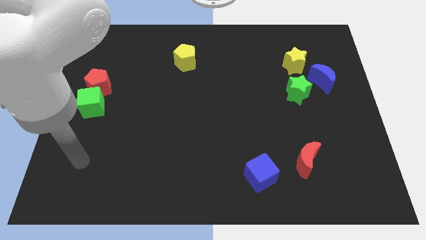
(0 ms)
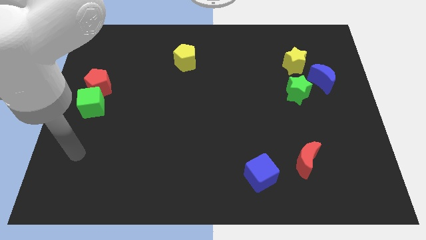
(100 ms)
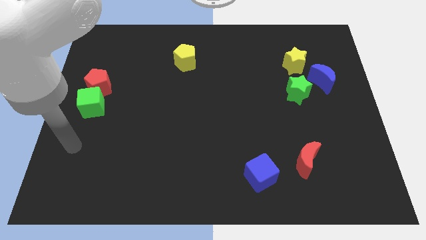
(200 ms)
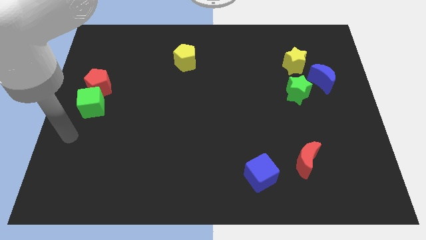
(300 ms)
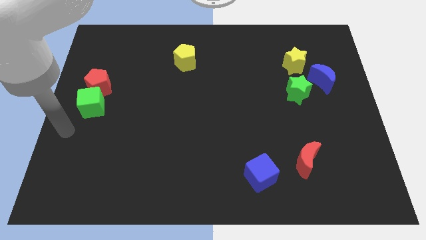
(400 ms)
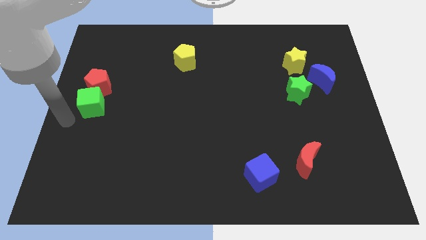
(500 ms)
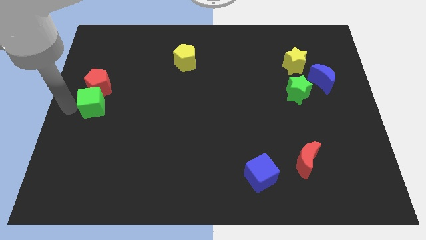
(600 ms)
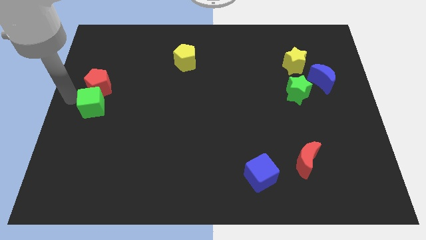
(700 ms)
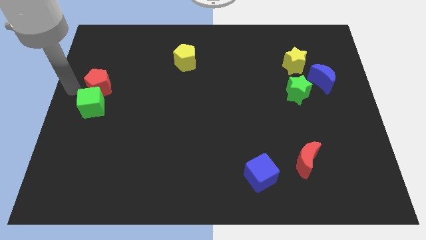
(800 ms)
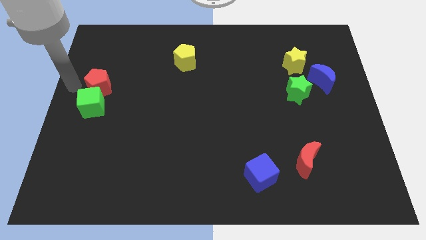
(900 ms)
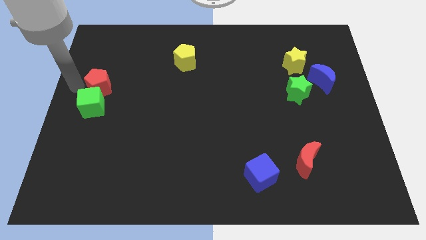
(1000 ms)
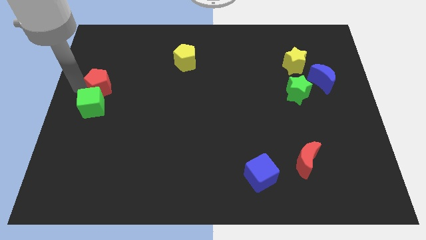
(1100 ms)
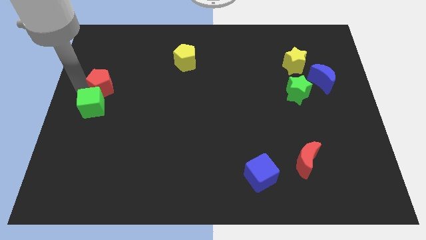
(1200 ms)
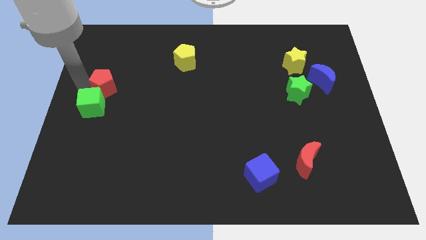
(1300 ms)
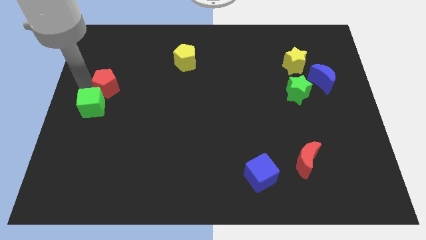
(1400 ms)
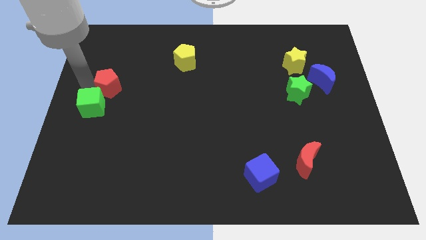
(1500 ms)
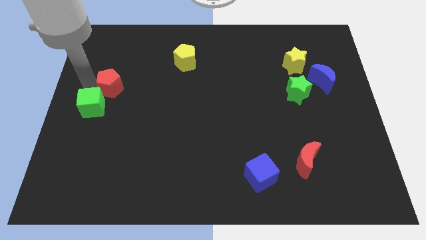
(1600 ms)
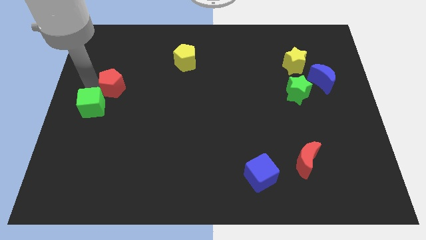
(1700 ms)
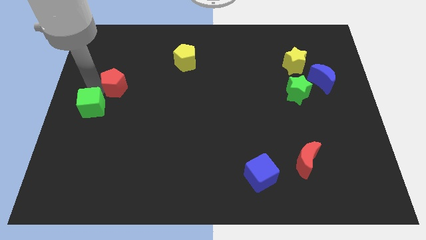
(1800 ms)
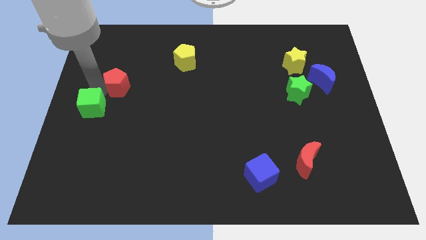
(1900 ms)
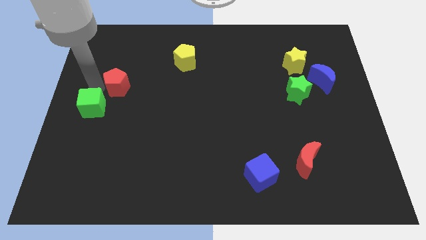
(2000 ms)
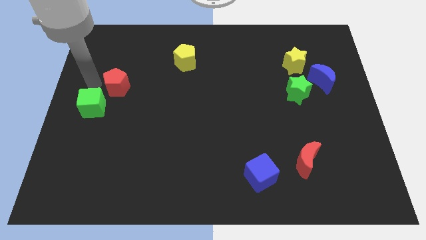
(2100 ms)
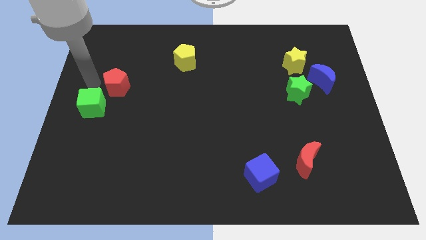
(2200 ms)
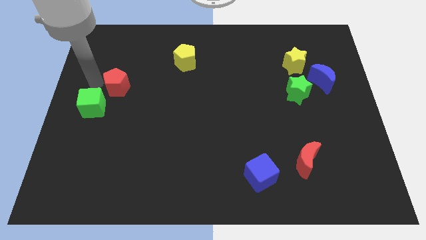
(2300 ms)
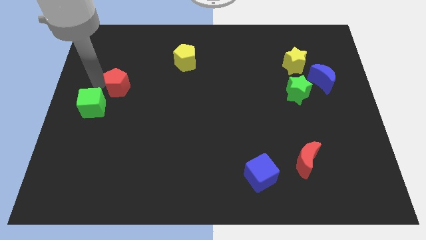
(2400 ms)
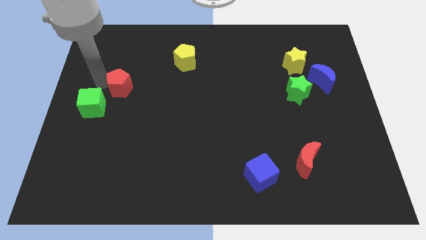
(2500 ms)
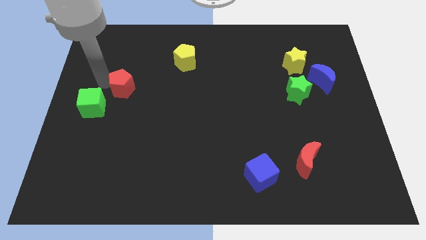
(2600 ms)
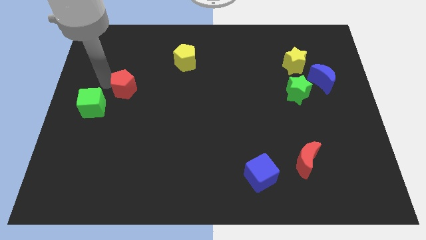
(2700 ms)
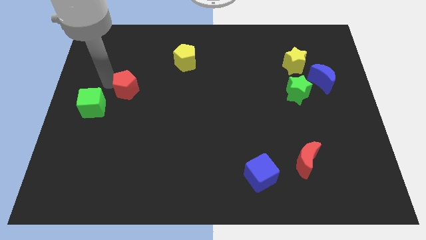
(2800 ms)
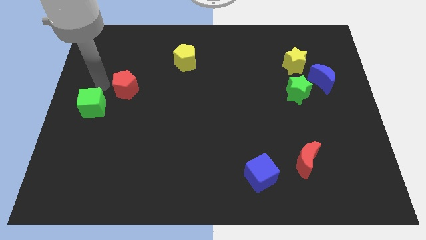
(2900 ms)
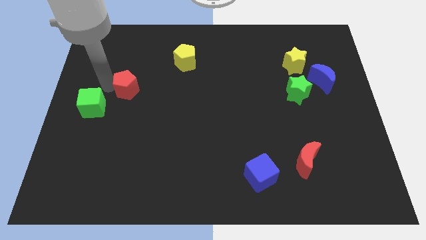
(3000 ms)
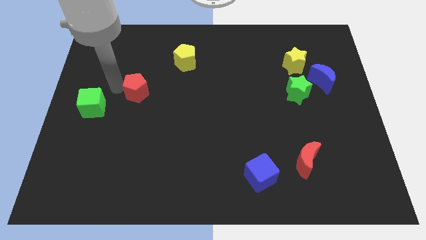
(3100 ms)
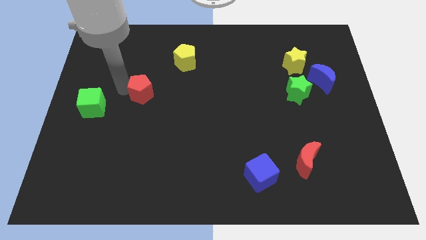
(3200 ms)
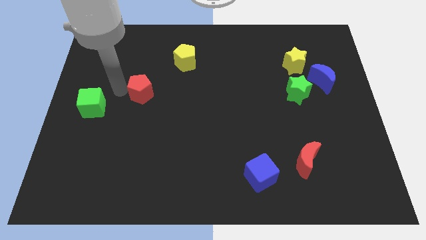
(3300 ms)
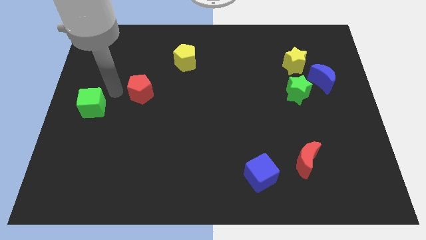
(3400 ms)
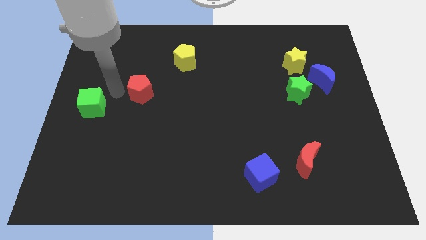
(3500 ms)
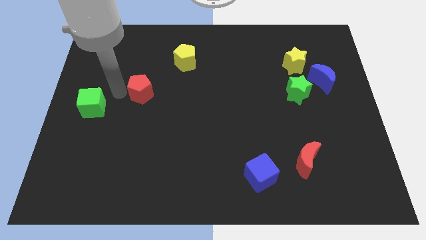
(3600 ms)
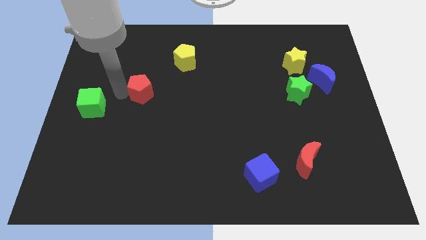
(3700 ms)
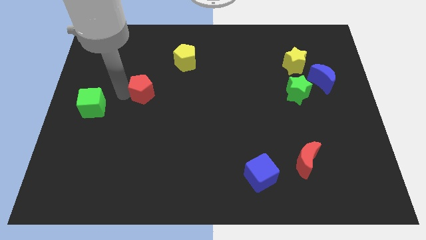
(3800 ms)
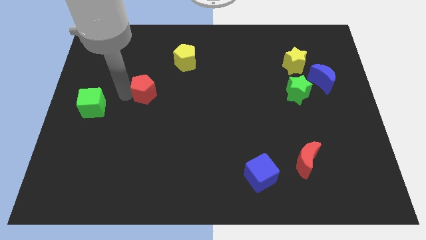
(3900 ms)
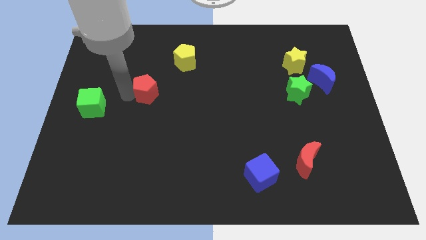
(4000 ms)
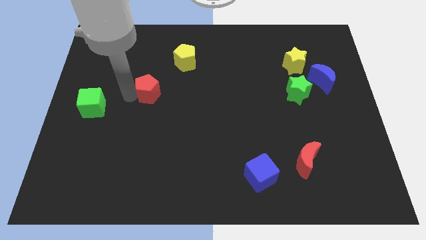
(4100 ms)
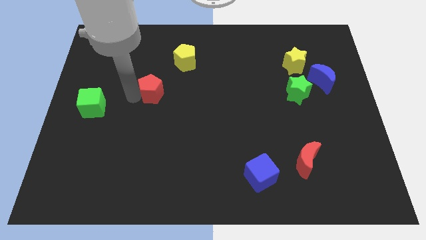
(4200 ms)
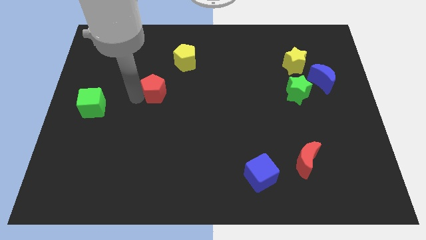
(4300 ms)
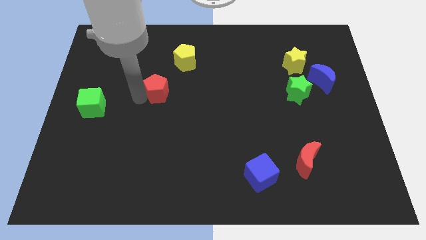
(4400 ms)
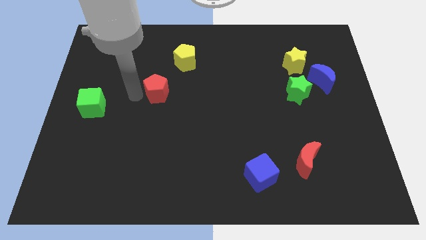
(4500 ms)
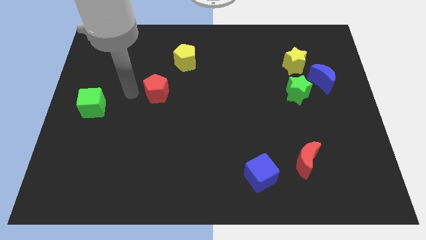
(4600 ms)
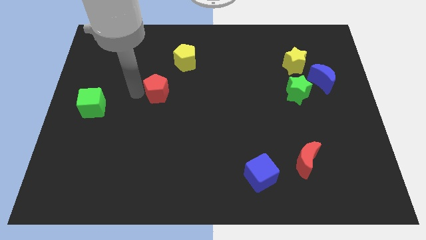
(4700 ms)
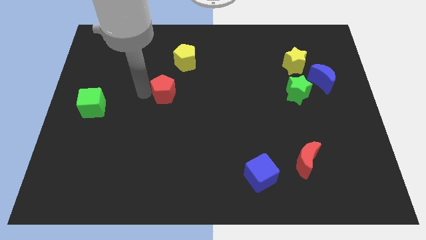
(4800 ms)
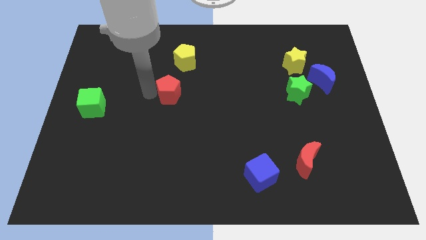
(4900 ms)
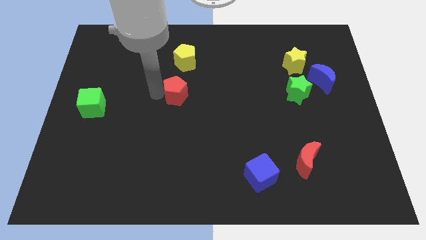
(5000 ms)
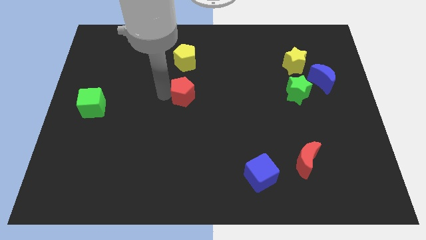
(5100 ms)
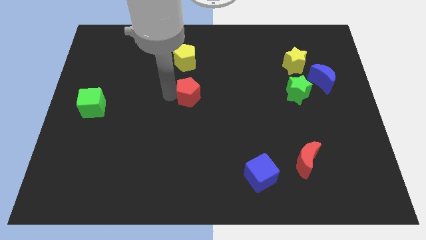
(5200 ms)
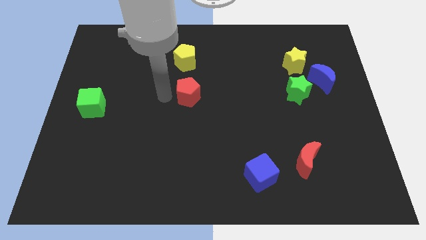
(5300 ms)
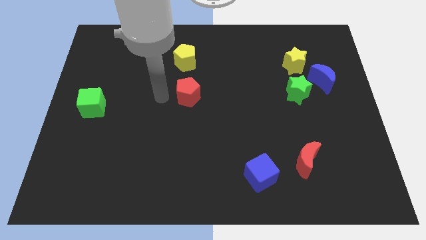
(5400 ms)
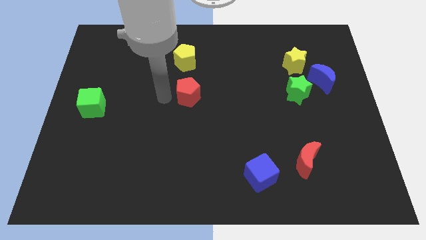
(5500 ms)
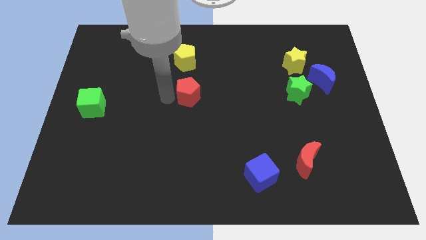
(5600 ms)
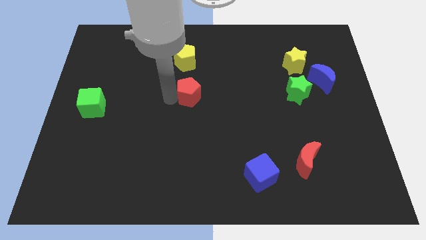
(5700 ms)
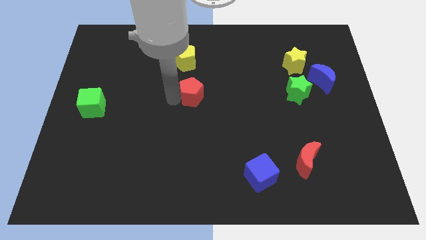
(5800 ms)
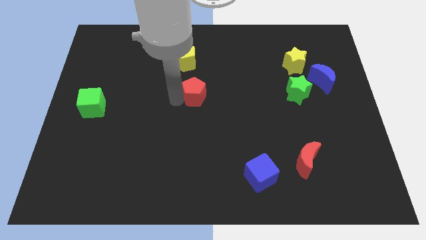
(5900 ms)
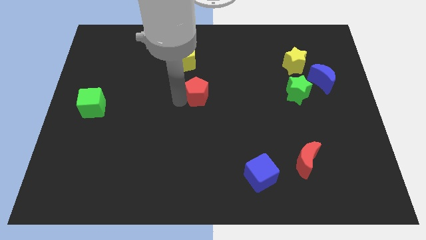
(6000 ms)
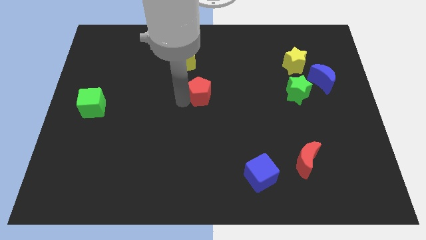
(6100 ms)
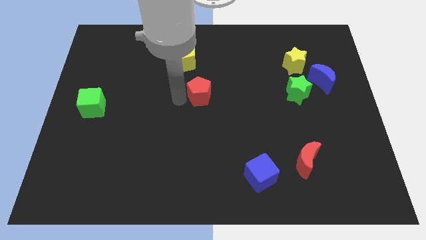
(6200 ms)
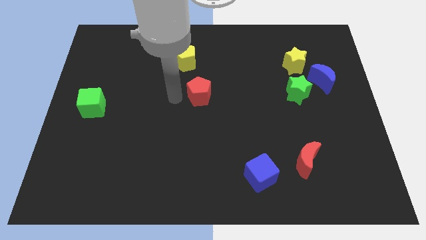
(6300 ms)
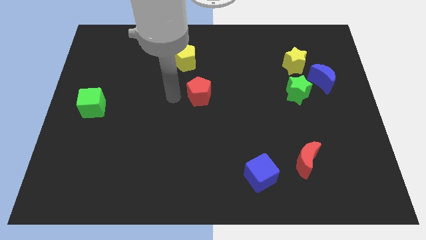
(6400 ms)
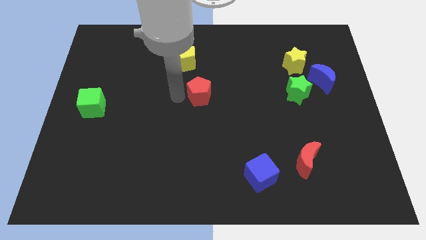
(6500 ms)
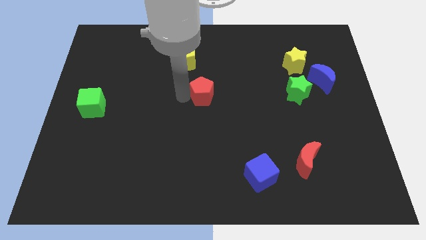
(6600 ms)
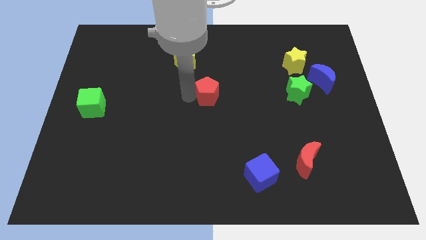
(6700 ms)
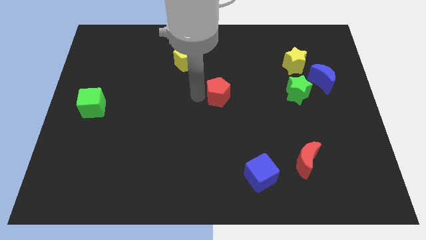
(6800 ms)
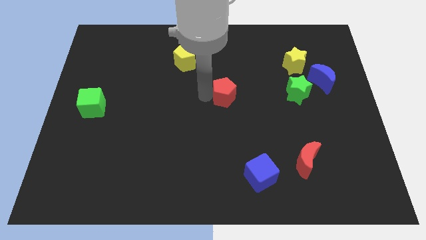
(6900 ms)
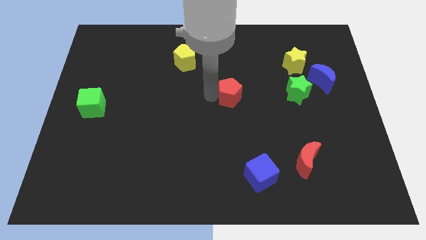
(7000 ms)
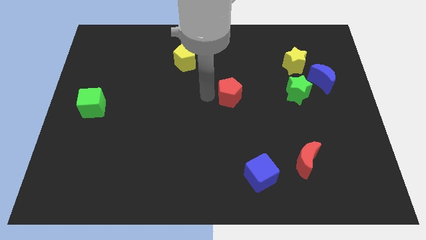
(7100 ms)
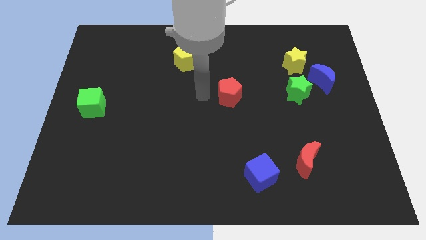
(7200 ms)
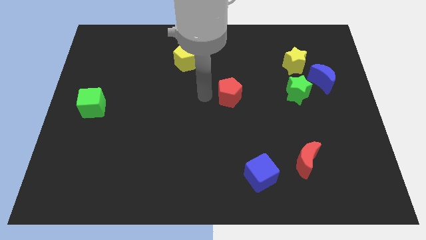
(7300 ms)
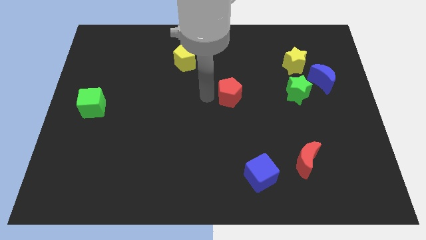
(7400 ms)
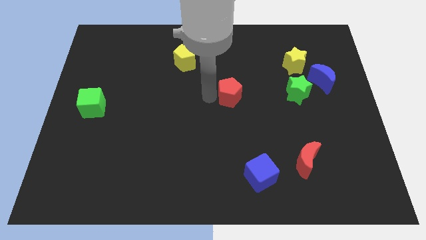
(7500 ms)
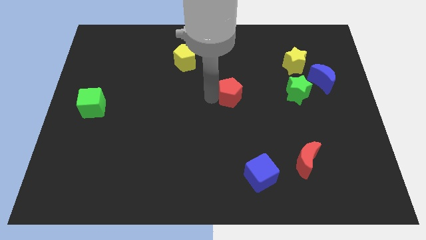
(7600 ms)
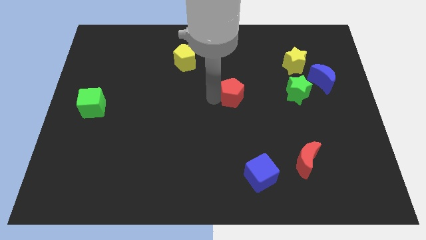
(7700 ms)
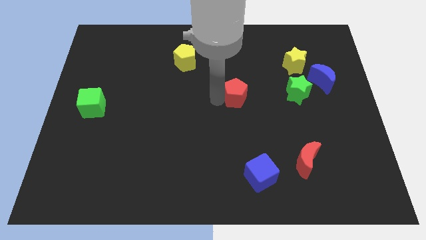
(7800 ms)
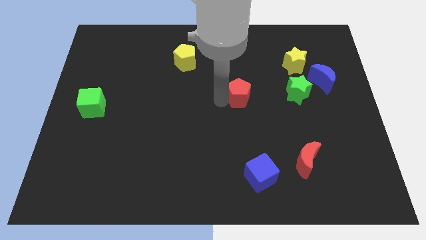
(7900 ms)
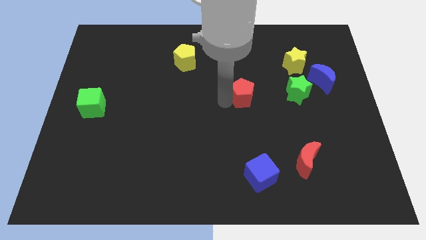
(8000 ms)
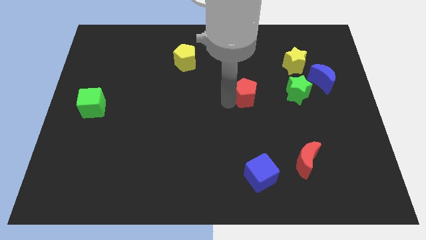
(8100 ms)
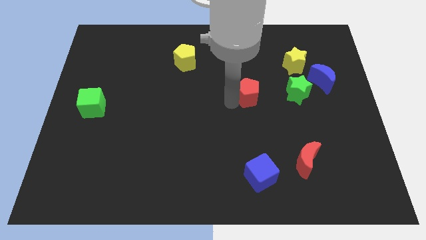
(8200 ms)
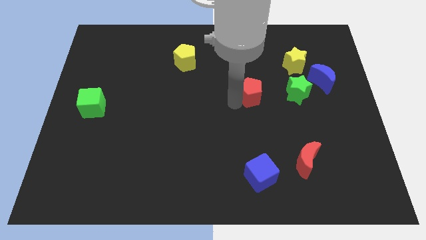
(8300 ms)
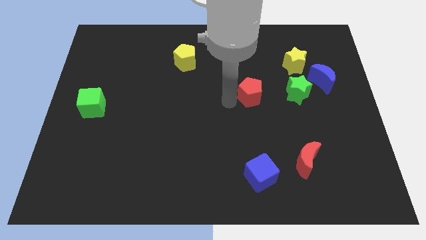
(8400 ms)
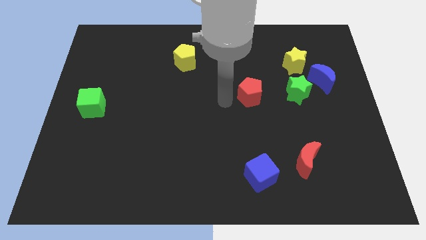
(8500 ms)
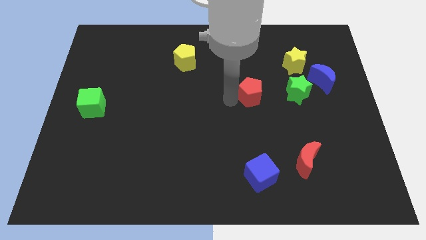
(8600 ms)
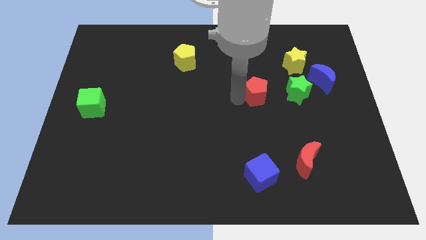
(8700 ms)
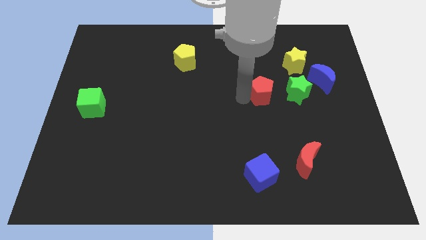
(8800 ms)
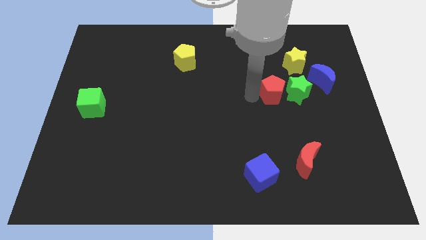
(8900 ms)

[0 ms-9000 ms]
slide the red pentagon next to the green star
